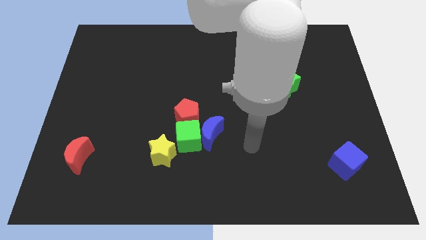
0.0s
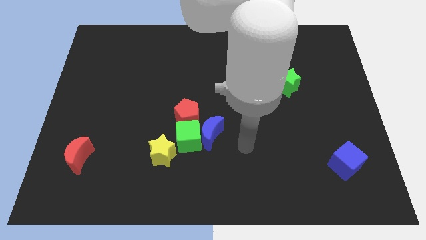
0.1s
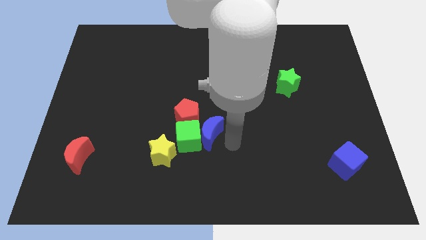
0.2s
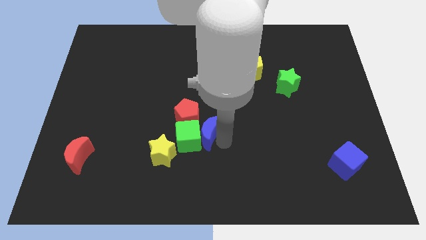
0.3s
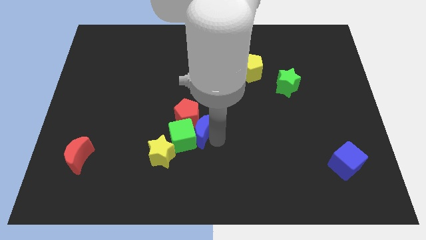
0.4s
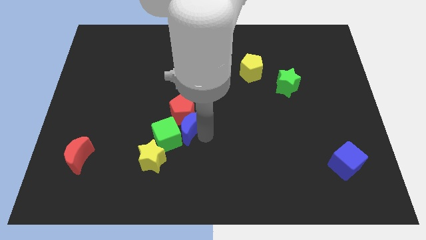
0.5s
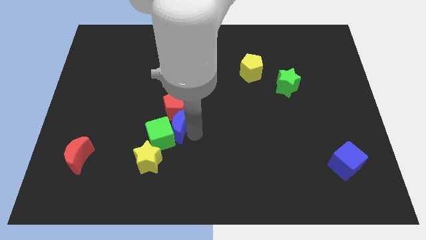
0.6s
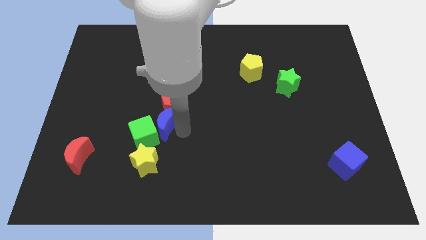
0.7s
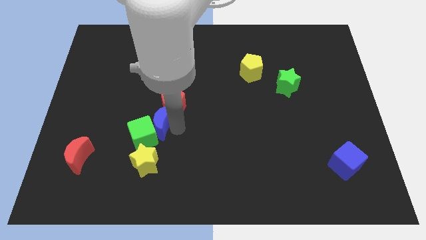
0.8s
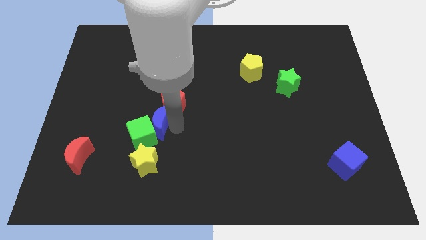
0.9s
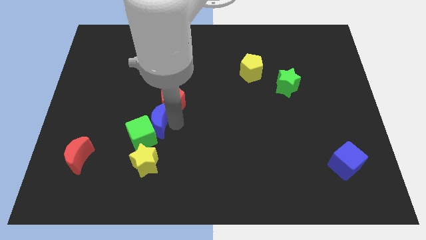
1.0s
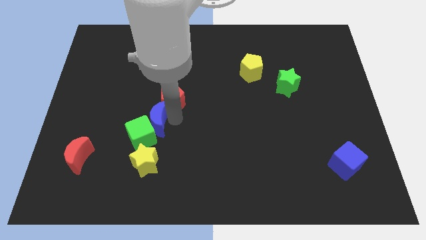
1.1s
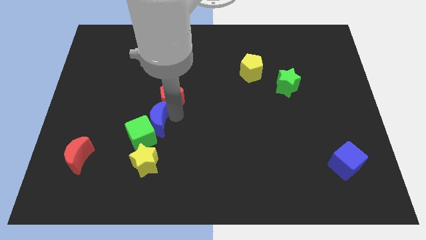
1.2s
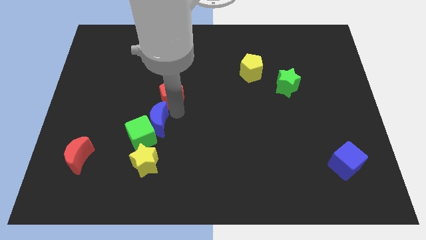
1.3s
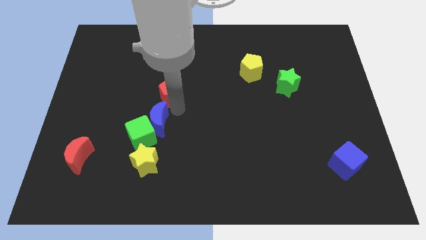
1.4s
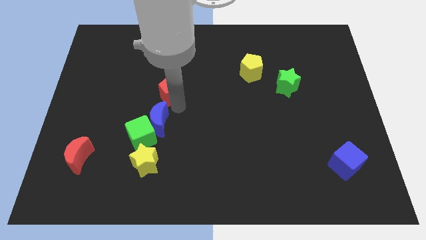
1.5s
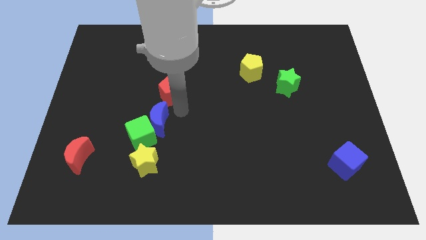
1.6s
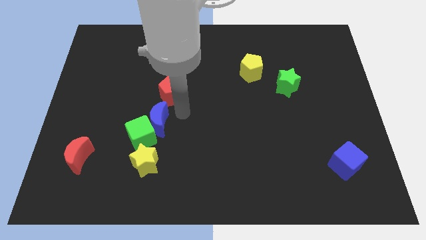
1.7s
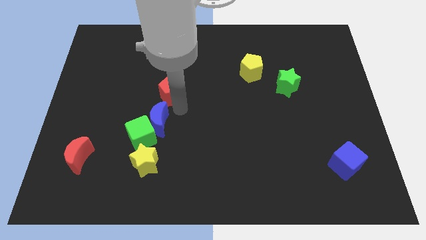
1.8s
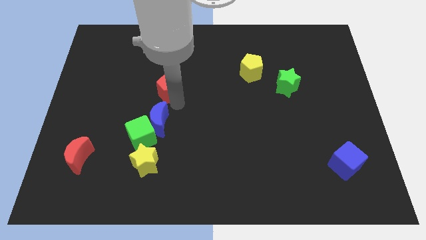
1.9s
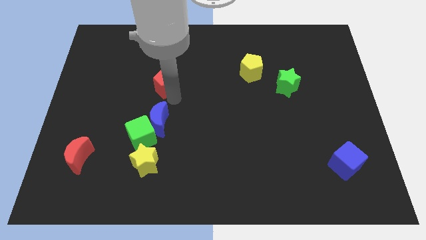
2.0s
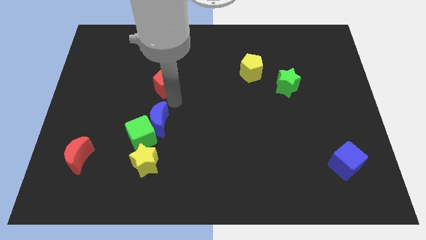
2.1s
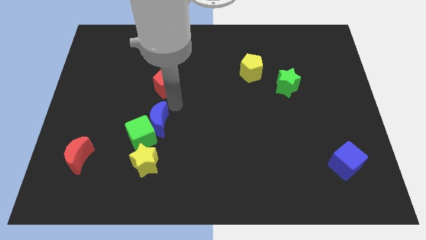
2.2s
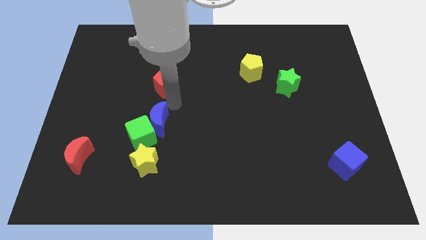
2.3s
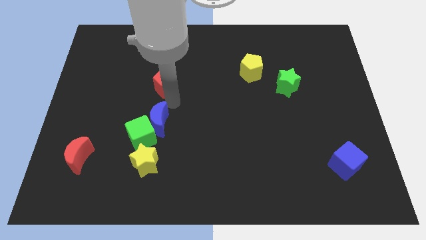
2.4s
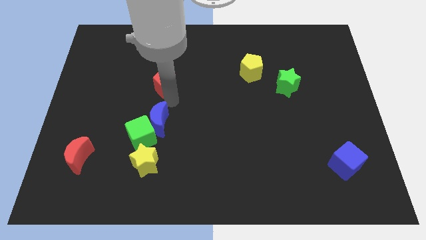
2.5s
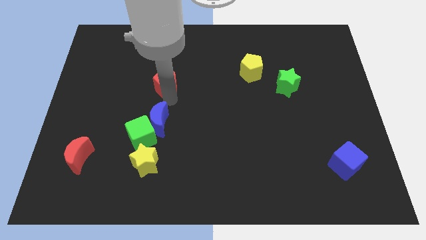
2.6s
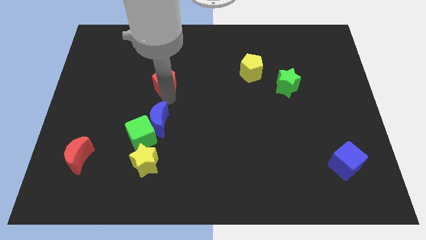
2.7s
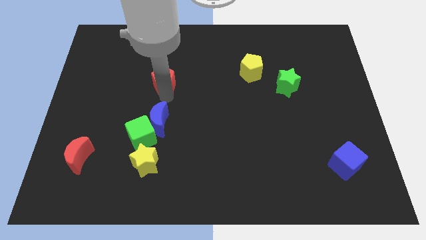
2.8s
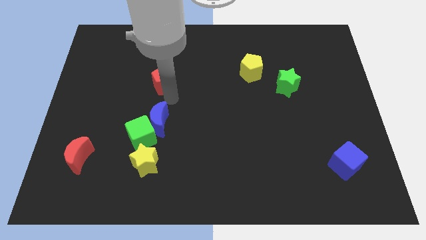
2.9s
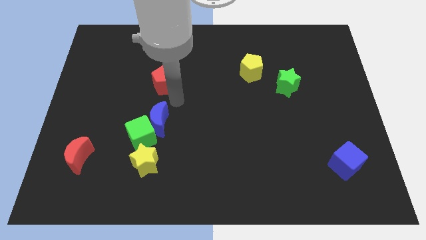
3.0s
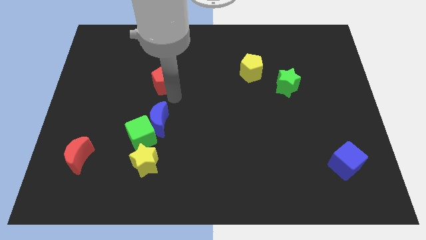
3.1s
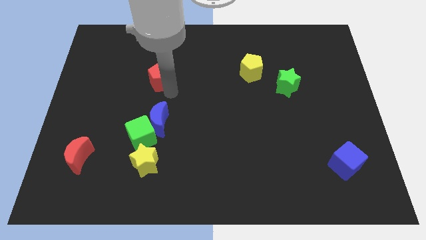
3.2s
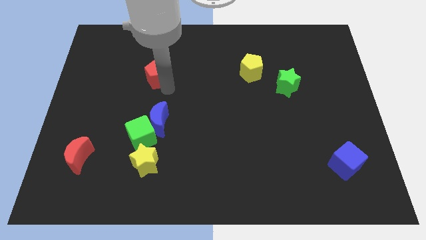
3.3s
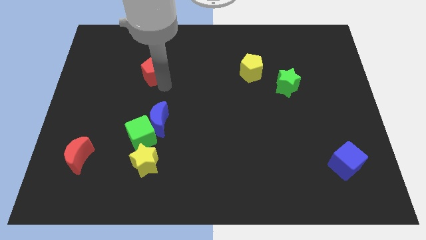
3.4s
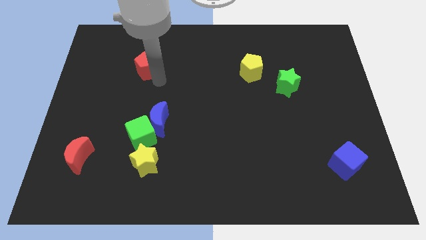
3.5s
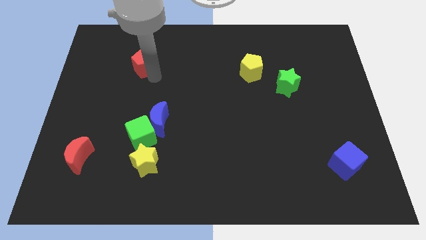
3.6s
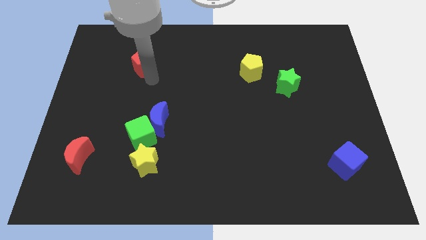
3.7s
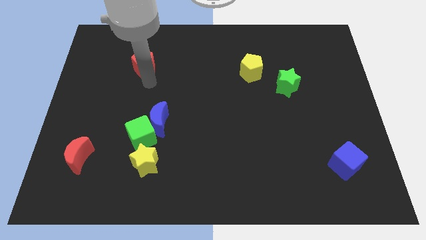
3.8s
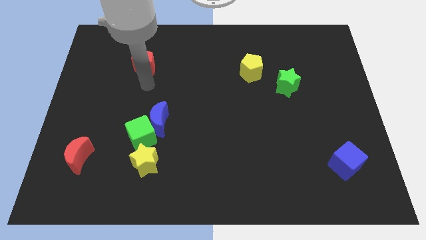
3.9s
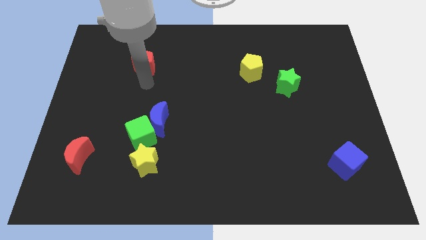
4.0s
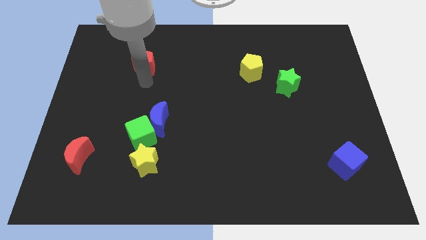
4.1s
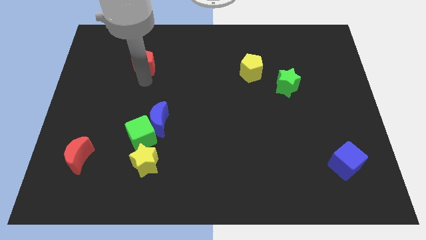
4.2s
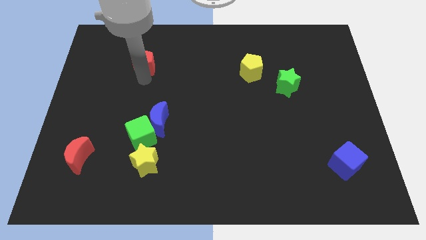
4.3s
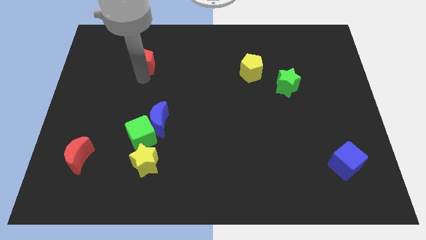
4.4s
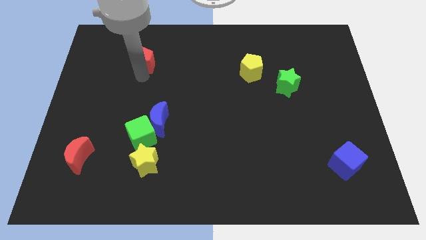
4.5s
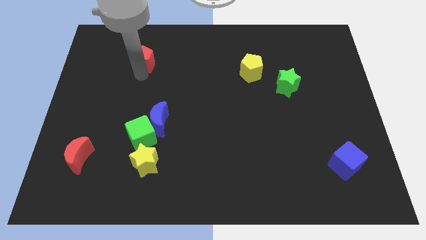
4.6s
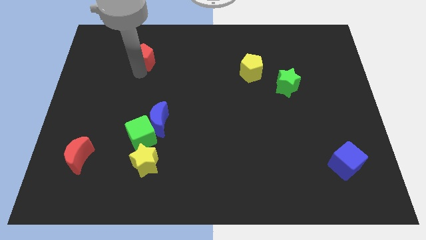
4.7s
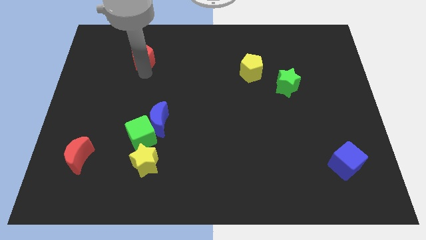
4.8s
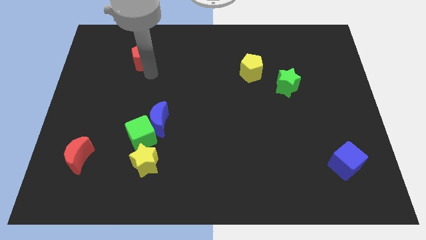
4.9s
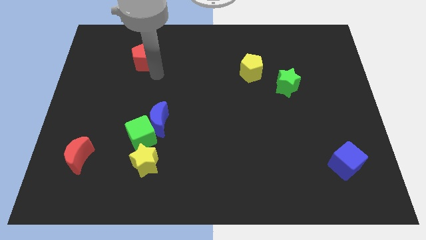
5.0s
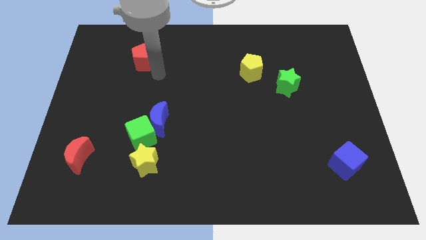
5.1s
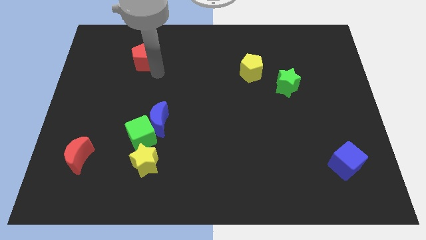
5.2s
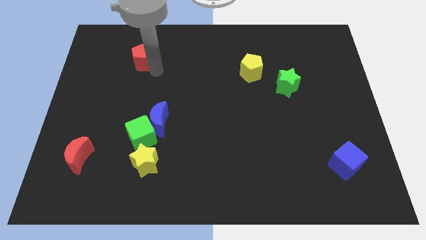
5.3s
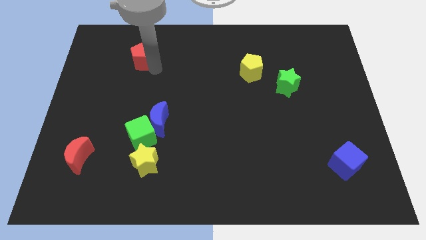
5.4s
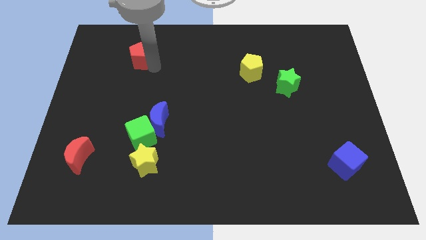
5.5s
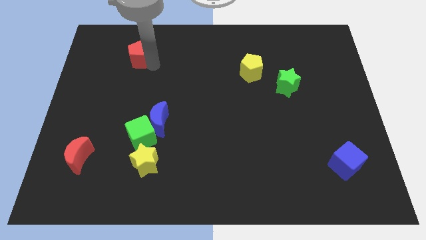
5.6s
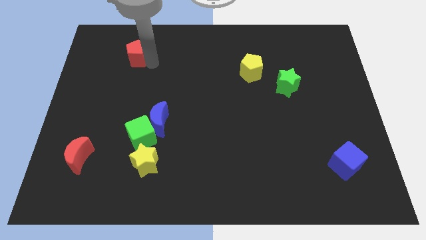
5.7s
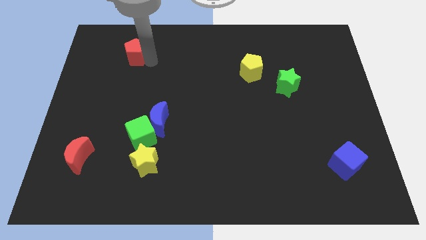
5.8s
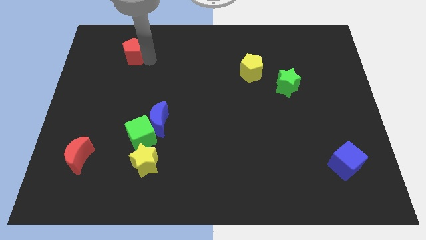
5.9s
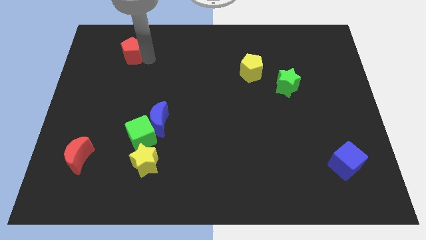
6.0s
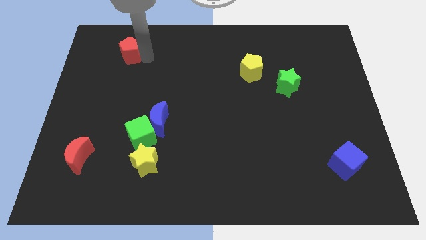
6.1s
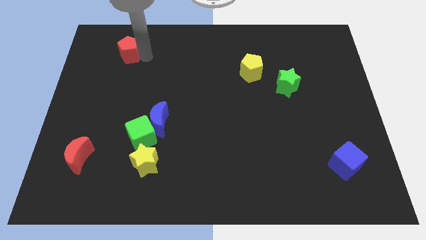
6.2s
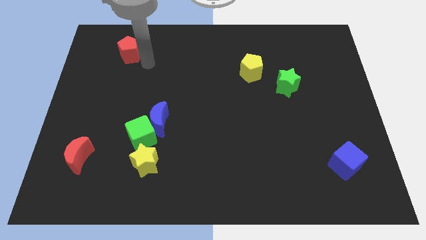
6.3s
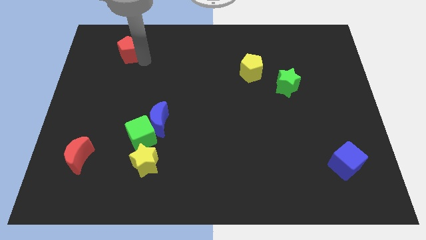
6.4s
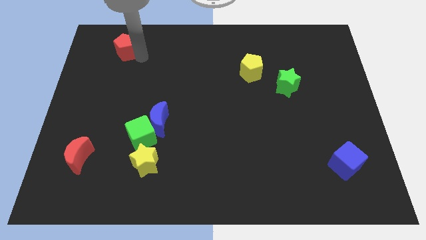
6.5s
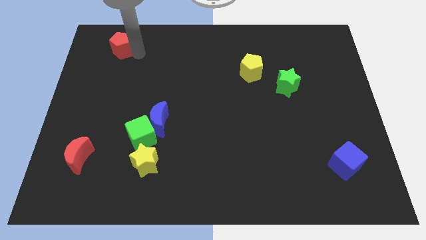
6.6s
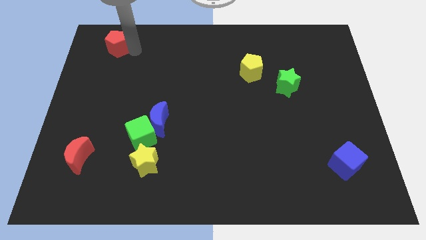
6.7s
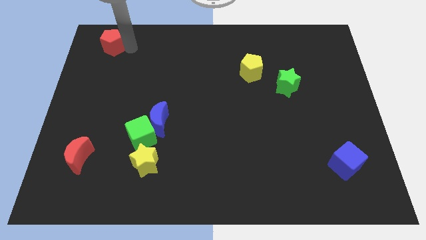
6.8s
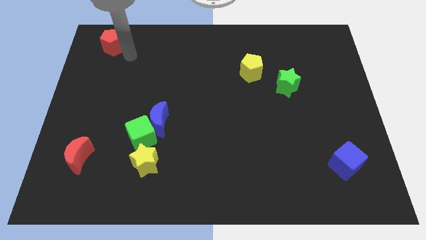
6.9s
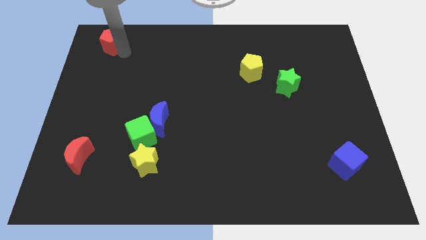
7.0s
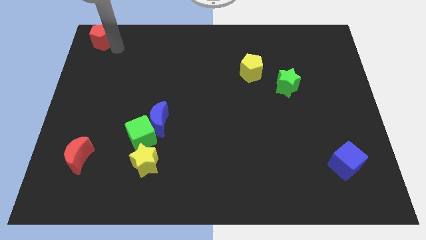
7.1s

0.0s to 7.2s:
slide the red pentagon to the top left

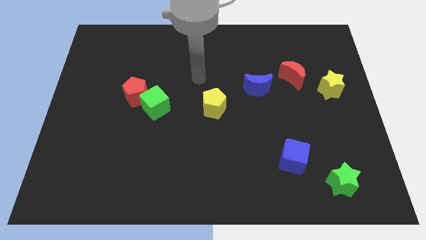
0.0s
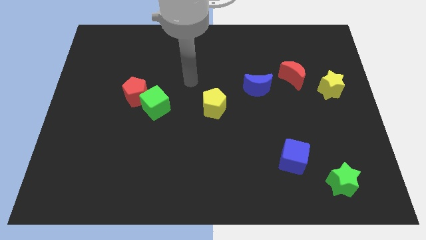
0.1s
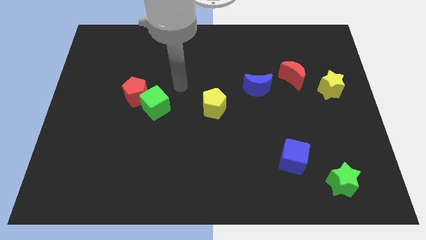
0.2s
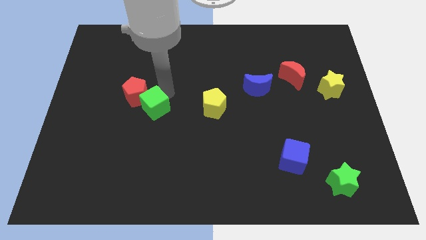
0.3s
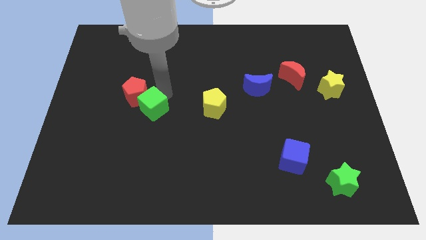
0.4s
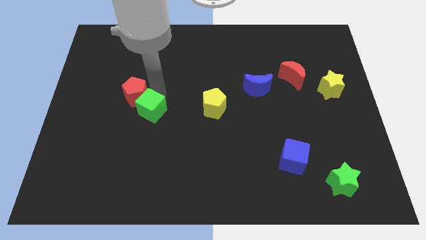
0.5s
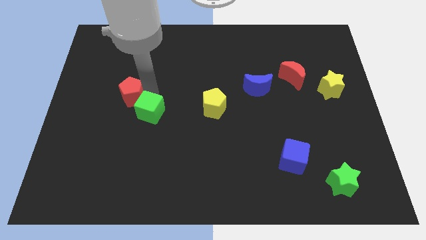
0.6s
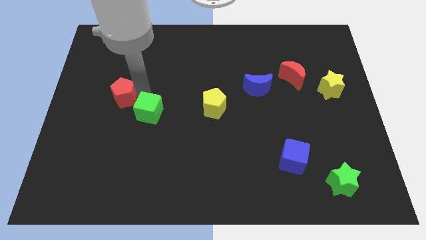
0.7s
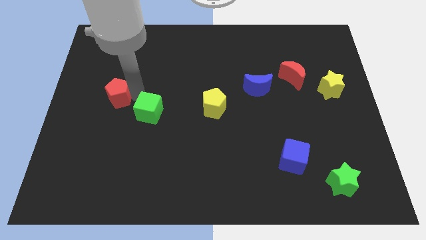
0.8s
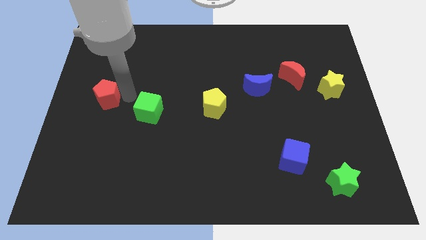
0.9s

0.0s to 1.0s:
push the red pentagon to the center left
